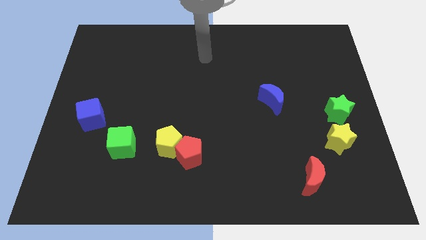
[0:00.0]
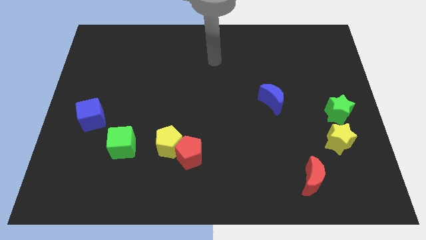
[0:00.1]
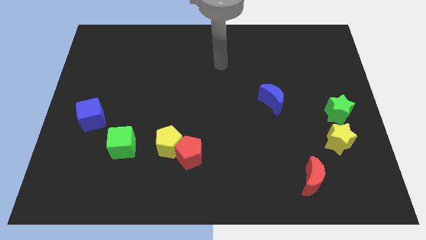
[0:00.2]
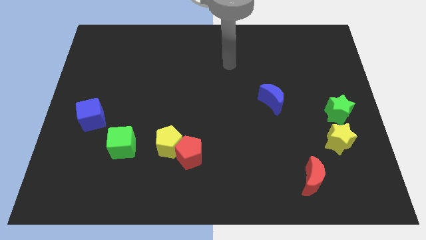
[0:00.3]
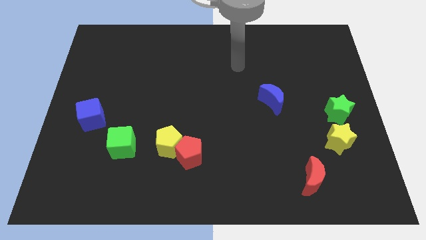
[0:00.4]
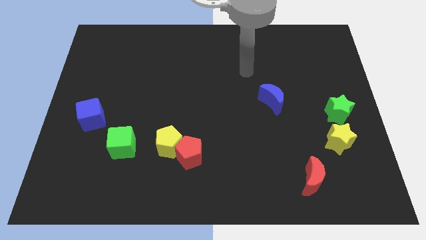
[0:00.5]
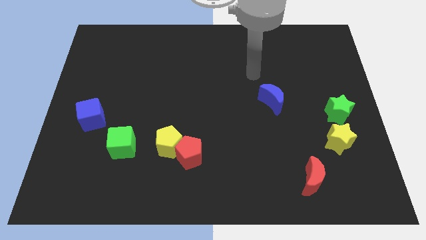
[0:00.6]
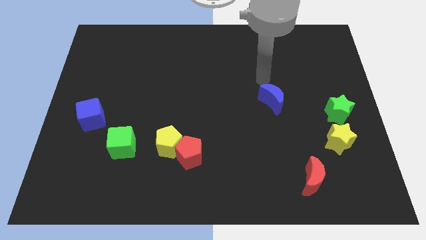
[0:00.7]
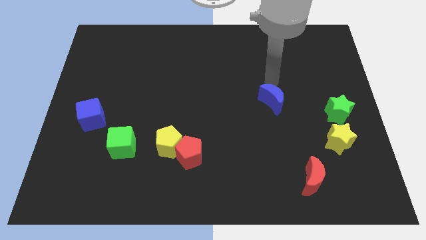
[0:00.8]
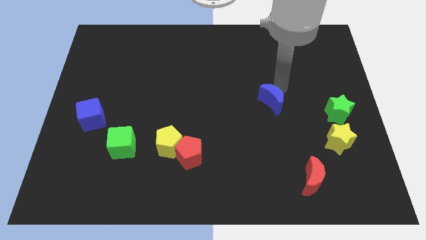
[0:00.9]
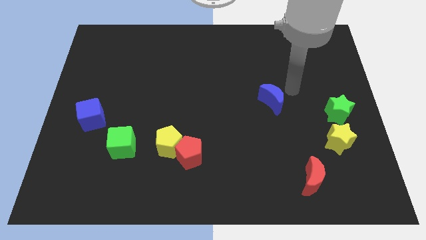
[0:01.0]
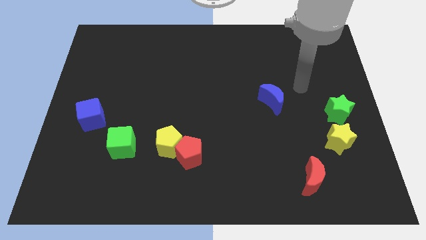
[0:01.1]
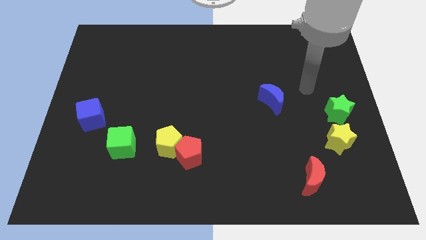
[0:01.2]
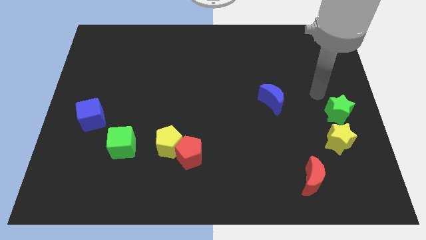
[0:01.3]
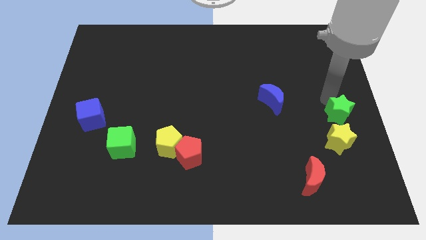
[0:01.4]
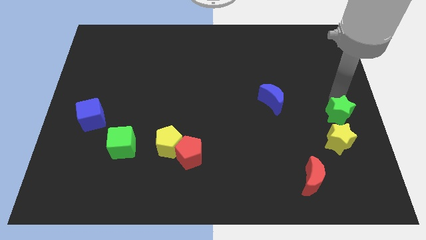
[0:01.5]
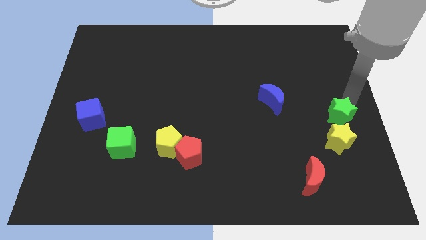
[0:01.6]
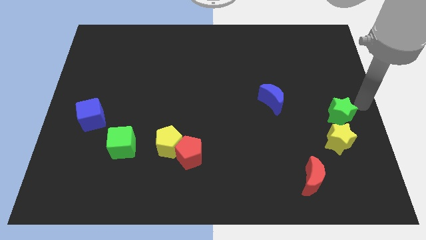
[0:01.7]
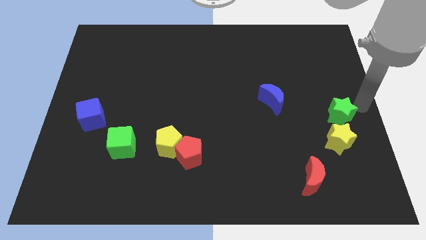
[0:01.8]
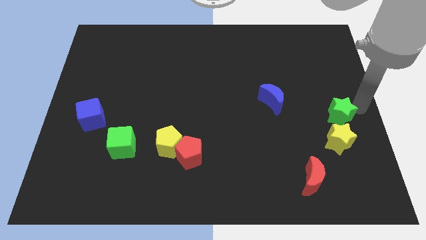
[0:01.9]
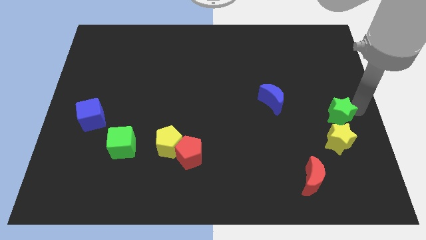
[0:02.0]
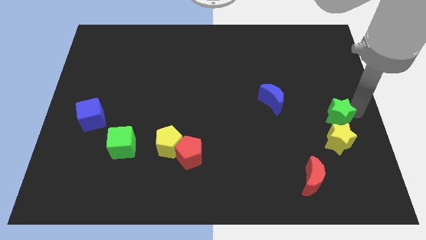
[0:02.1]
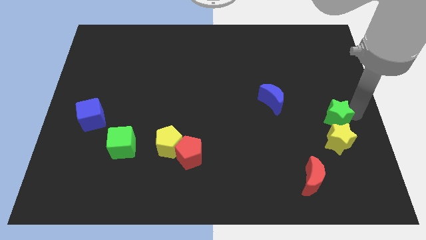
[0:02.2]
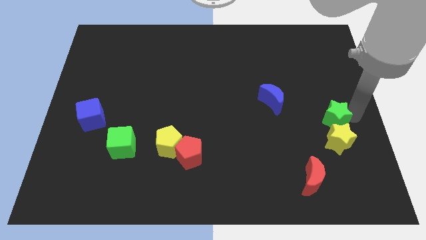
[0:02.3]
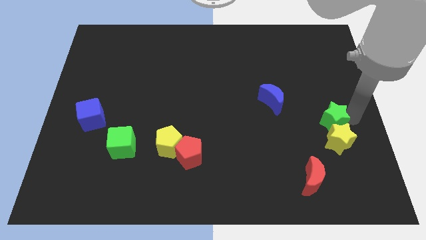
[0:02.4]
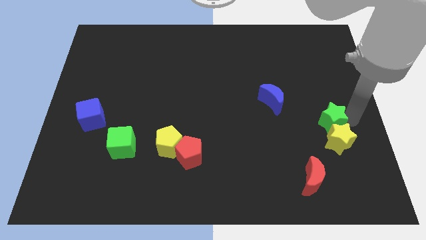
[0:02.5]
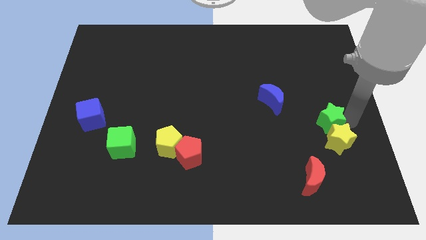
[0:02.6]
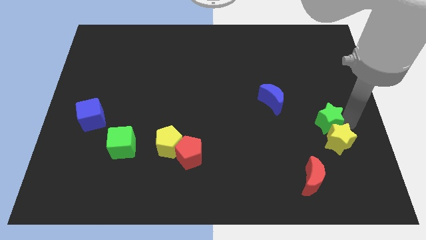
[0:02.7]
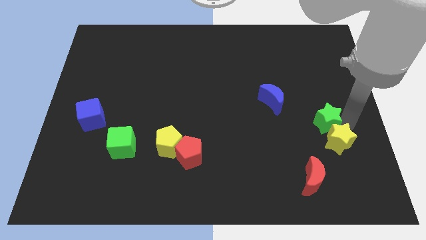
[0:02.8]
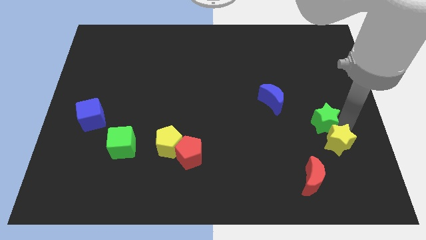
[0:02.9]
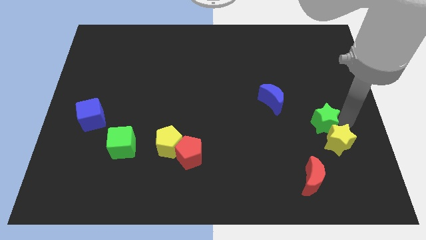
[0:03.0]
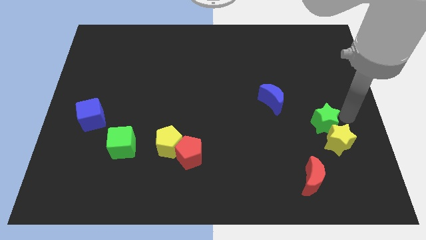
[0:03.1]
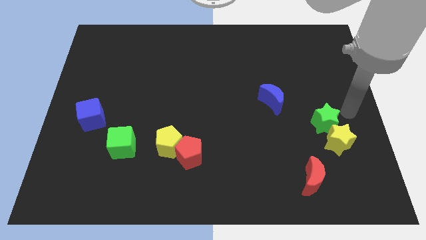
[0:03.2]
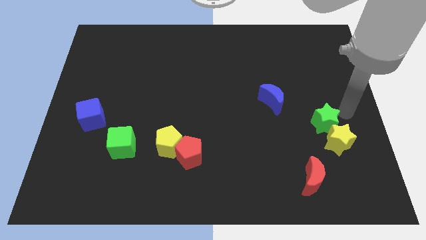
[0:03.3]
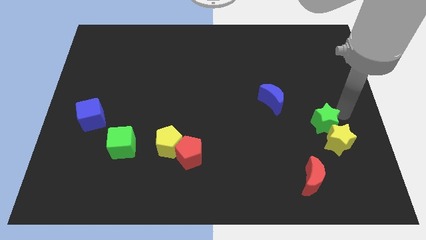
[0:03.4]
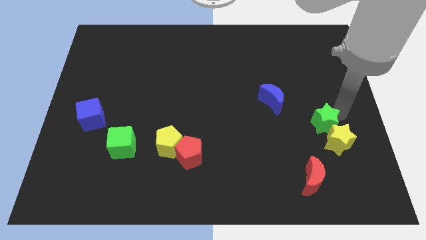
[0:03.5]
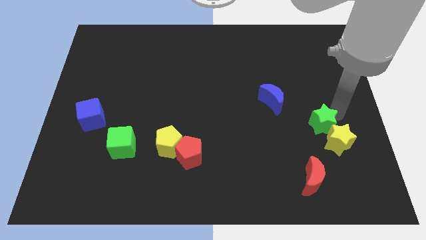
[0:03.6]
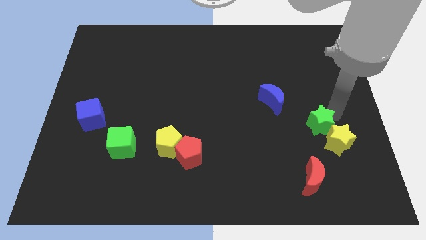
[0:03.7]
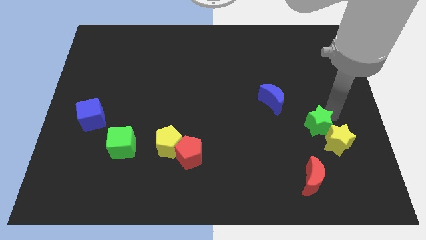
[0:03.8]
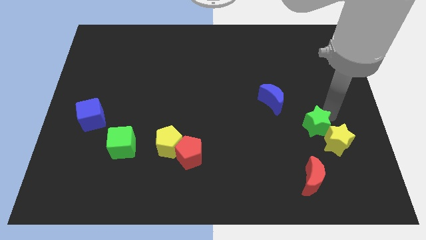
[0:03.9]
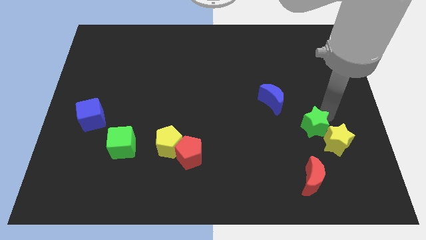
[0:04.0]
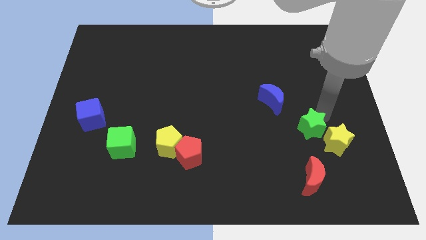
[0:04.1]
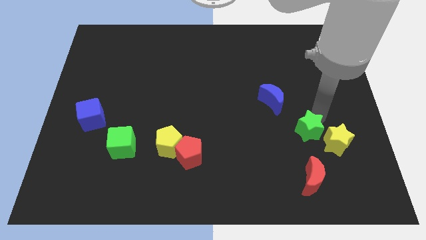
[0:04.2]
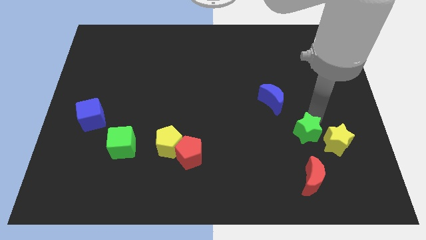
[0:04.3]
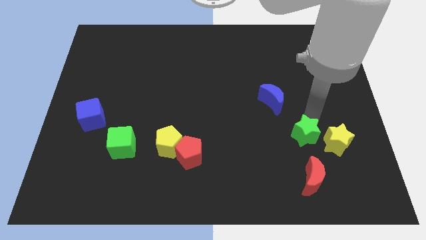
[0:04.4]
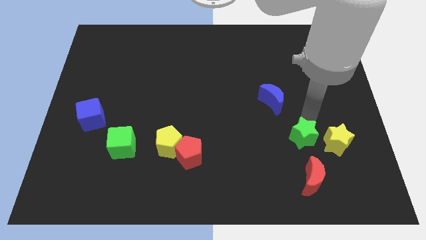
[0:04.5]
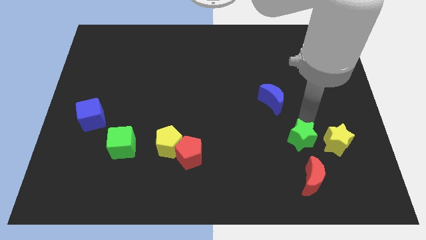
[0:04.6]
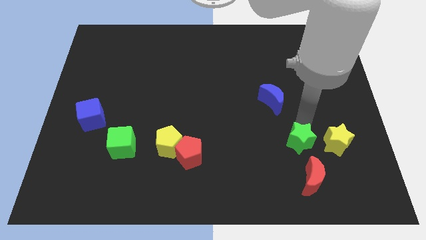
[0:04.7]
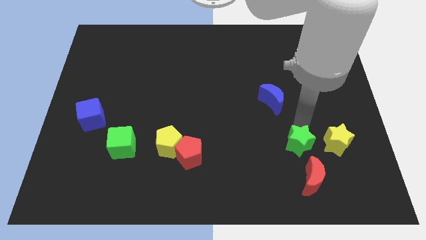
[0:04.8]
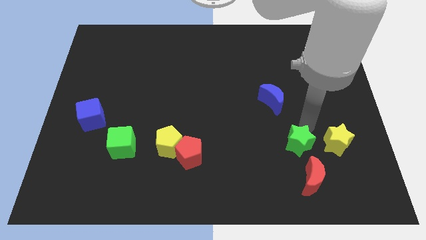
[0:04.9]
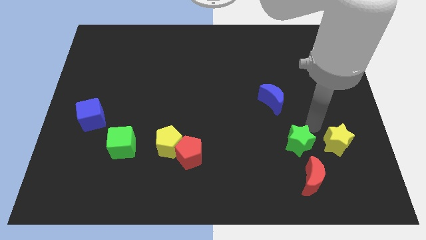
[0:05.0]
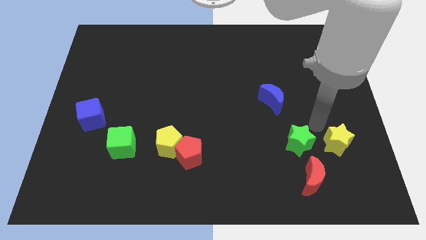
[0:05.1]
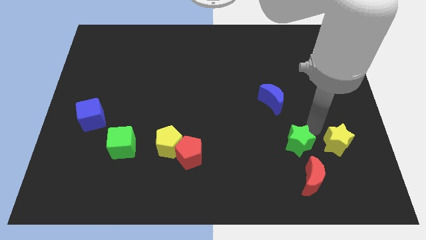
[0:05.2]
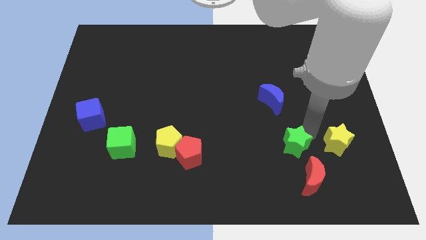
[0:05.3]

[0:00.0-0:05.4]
slide the green star to the top left of the red moon

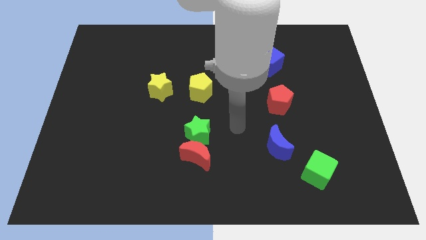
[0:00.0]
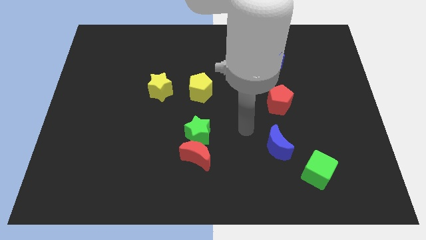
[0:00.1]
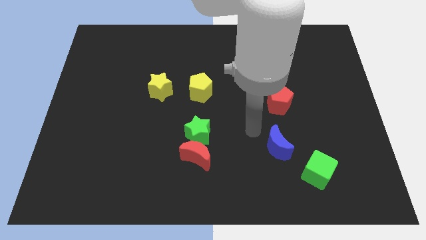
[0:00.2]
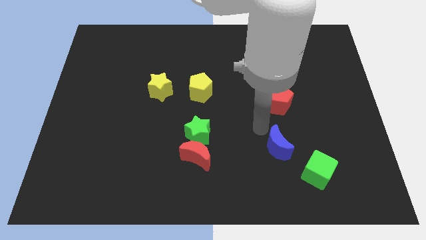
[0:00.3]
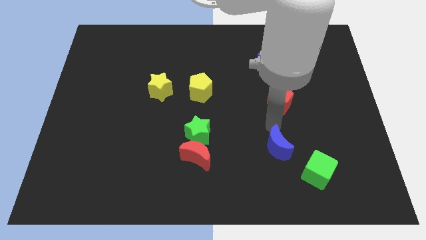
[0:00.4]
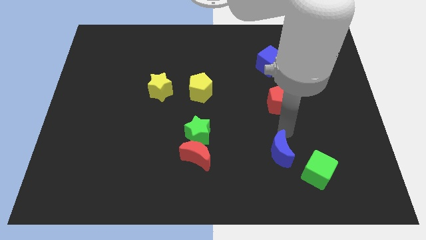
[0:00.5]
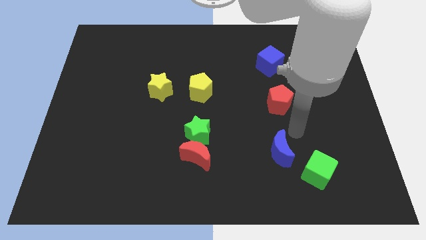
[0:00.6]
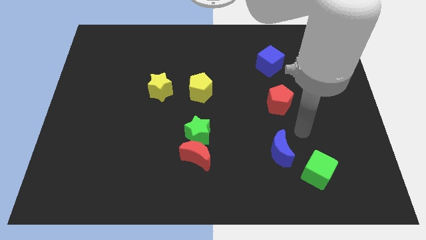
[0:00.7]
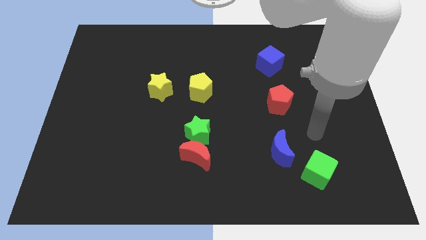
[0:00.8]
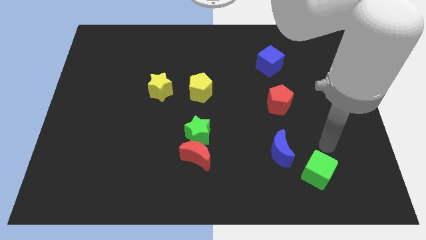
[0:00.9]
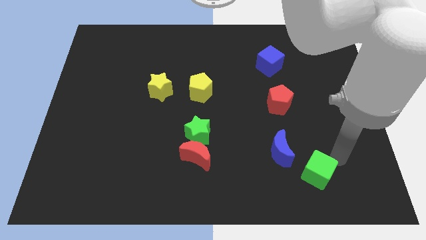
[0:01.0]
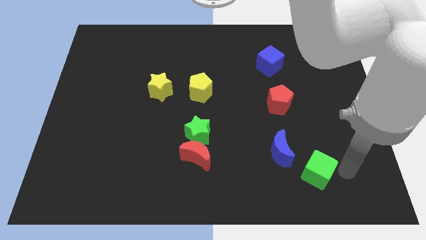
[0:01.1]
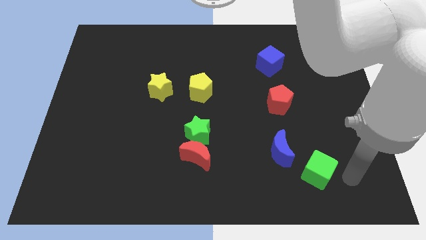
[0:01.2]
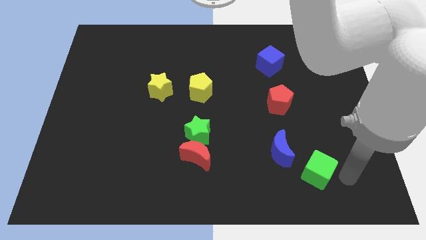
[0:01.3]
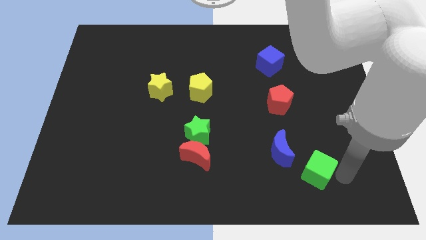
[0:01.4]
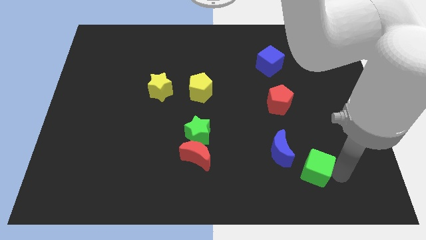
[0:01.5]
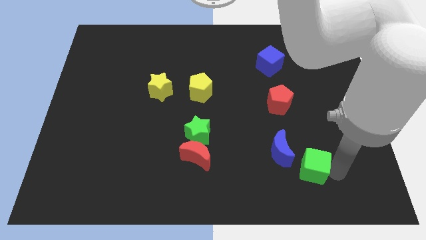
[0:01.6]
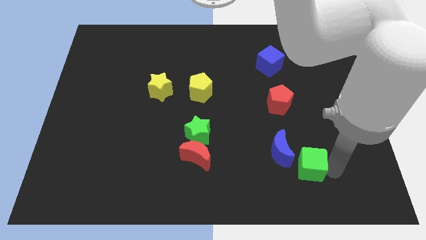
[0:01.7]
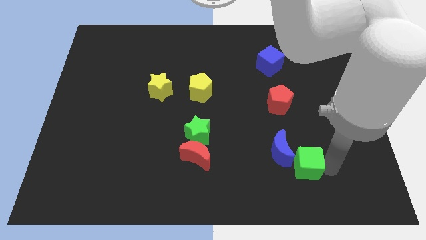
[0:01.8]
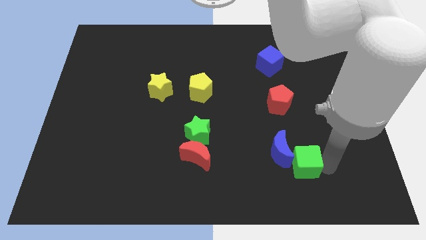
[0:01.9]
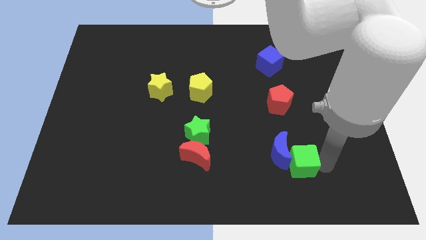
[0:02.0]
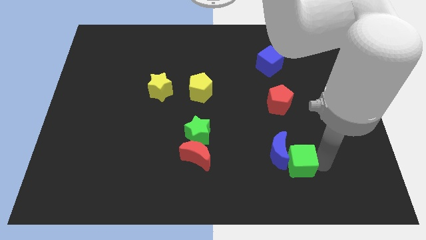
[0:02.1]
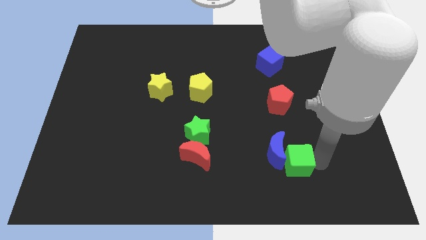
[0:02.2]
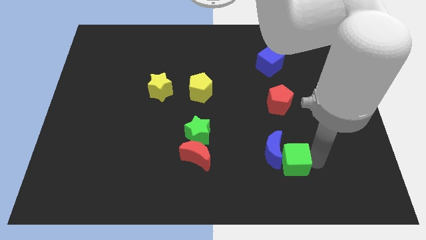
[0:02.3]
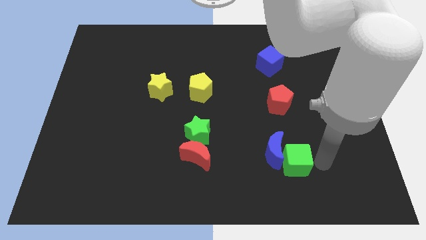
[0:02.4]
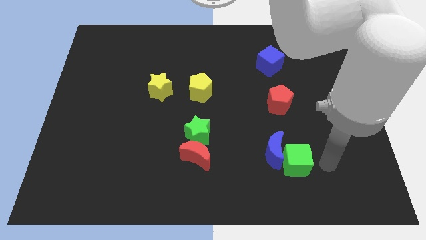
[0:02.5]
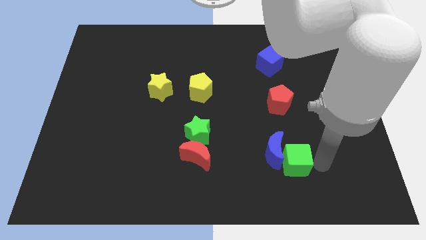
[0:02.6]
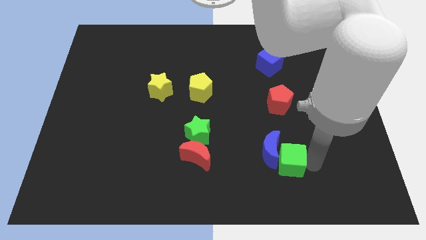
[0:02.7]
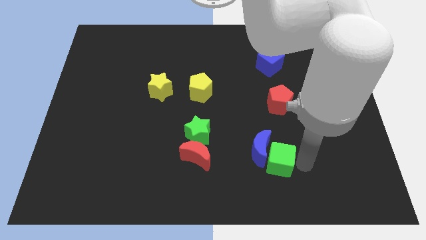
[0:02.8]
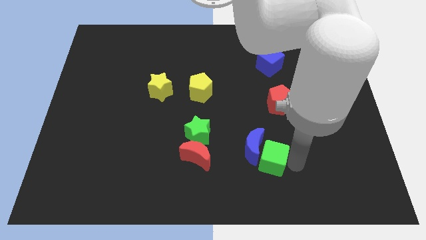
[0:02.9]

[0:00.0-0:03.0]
move the green cube just right of the red moon
